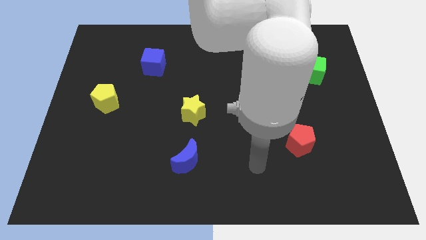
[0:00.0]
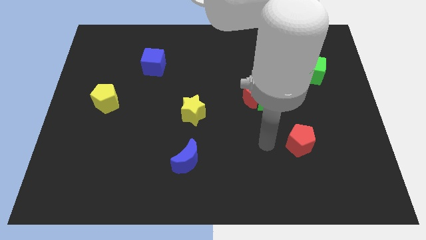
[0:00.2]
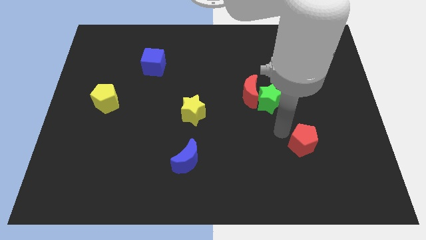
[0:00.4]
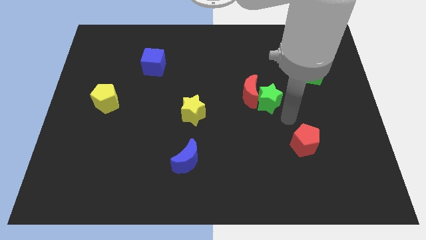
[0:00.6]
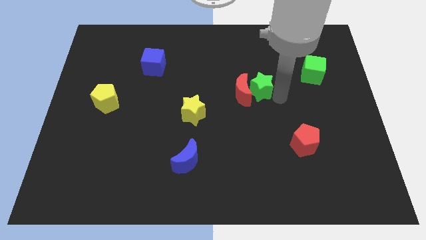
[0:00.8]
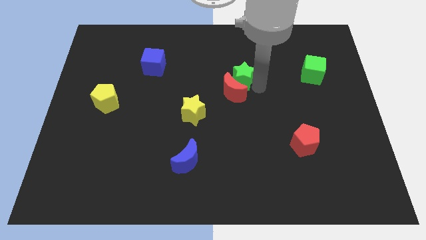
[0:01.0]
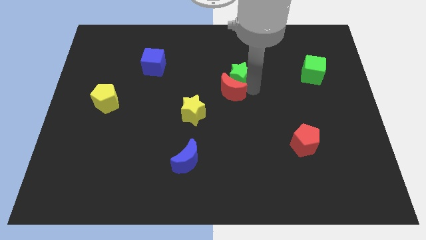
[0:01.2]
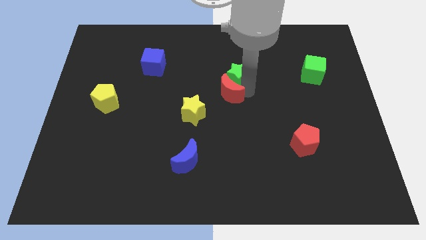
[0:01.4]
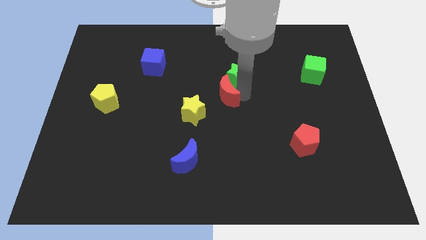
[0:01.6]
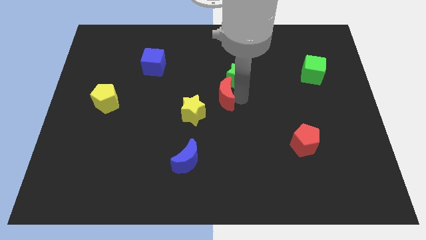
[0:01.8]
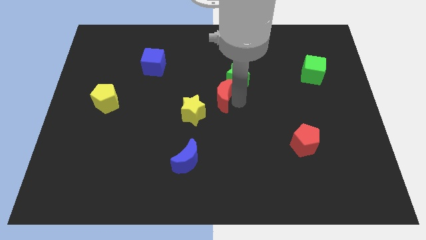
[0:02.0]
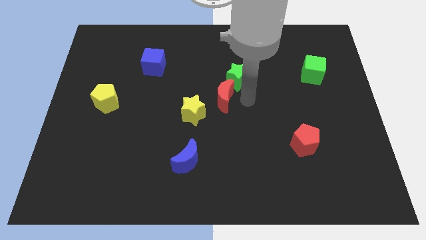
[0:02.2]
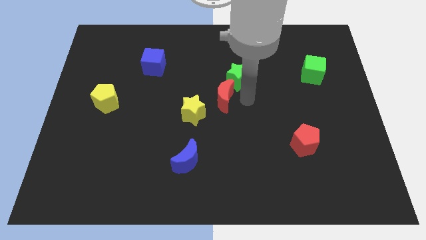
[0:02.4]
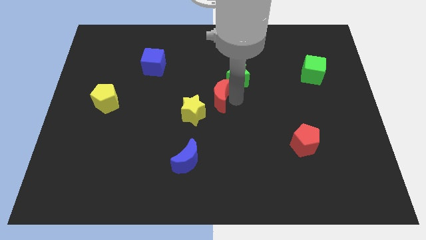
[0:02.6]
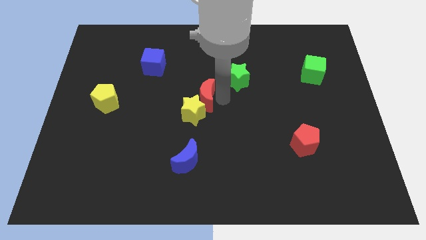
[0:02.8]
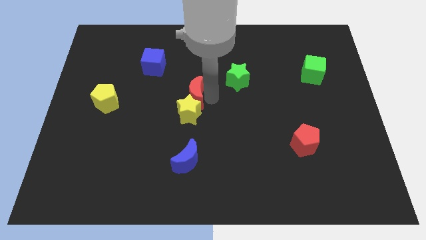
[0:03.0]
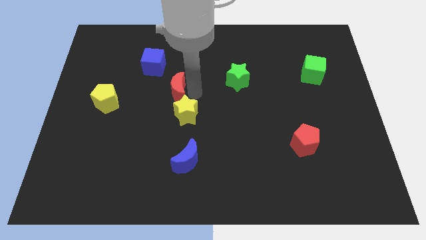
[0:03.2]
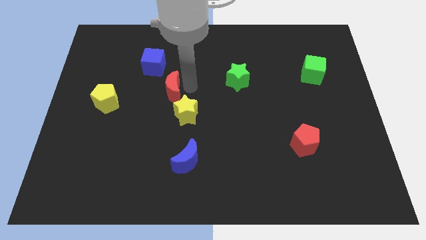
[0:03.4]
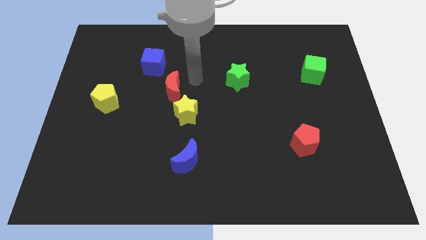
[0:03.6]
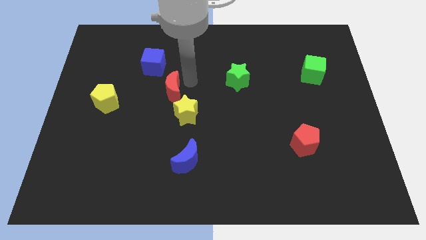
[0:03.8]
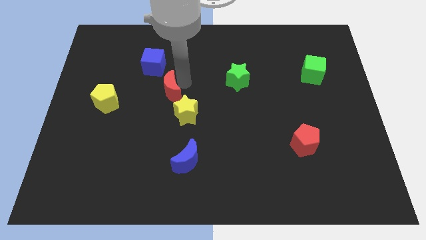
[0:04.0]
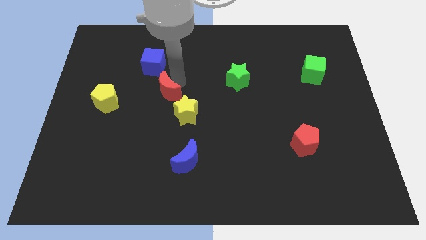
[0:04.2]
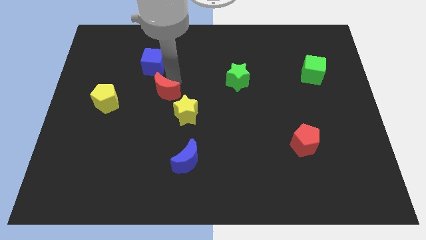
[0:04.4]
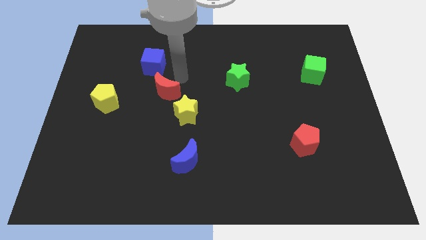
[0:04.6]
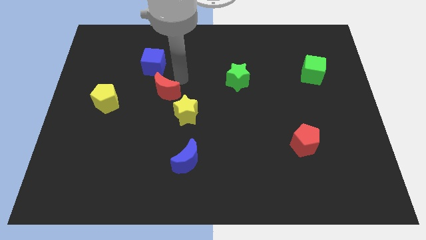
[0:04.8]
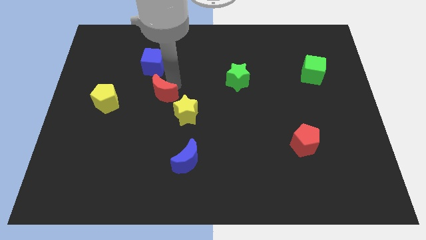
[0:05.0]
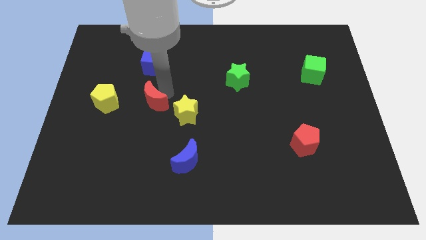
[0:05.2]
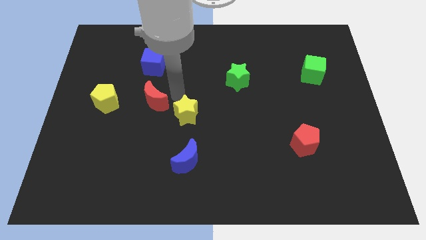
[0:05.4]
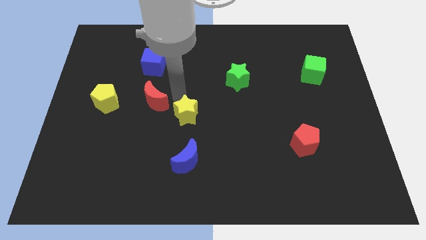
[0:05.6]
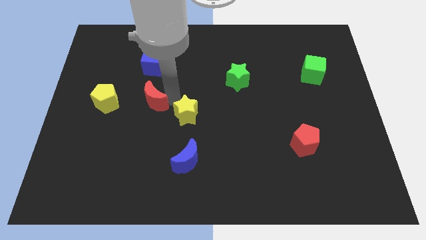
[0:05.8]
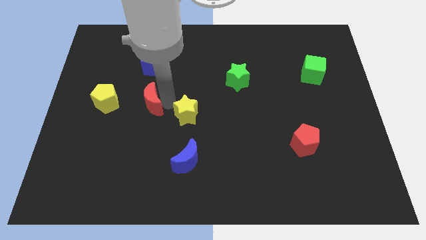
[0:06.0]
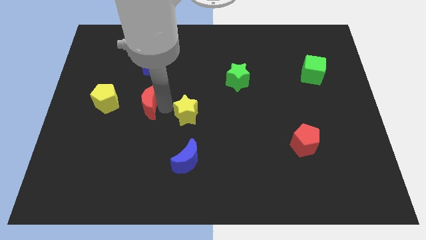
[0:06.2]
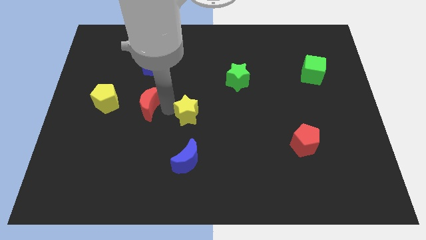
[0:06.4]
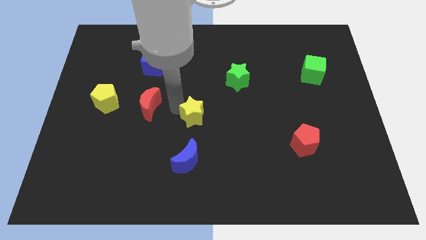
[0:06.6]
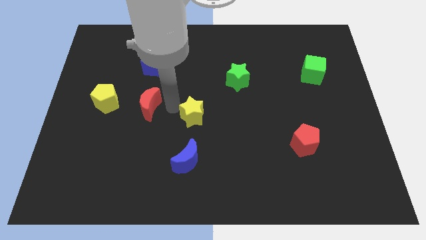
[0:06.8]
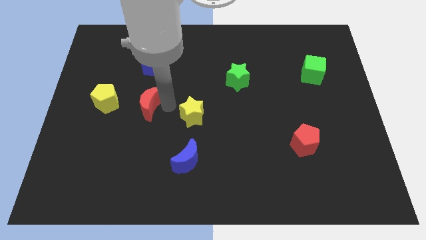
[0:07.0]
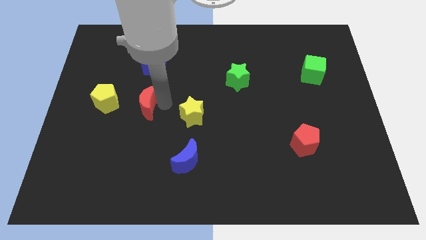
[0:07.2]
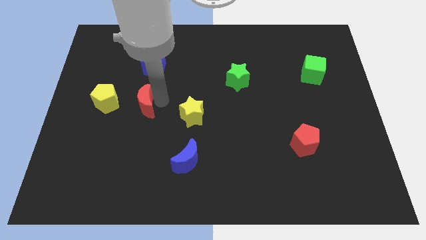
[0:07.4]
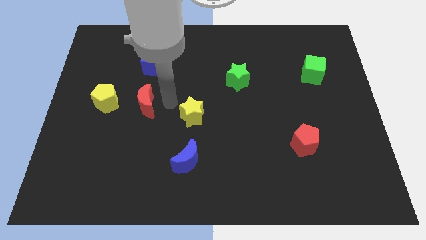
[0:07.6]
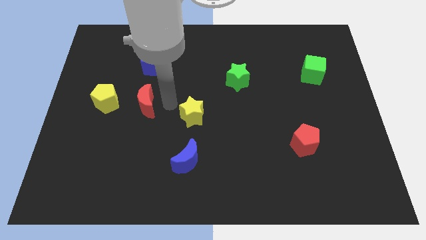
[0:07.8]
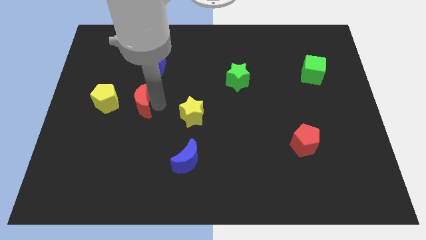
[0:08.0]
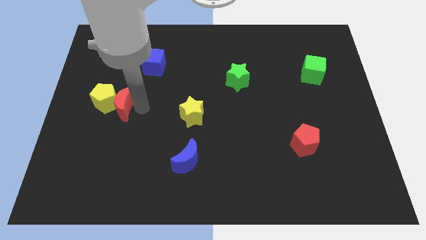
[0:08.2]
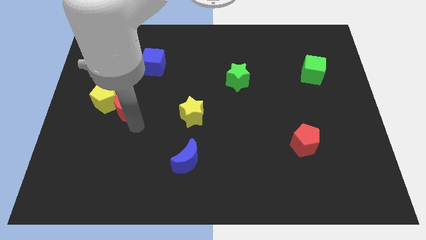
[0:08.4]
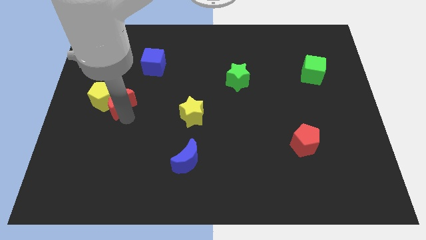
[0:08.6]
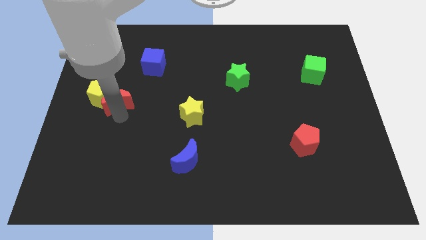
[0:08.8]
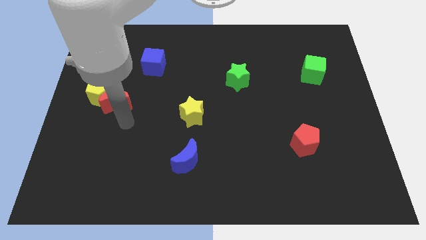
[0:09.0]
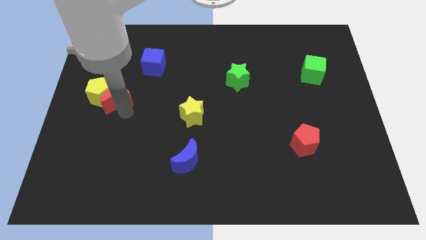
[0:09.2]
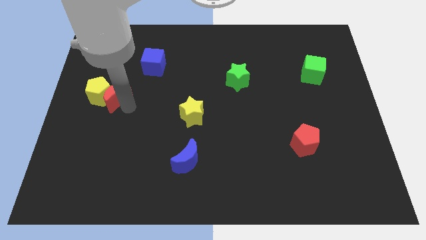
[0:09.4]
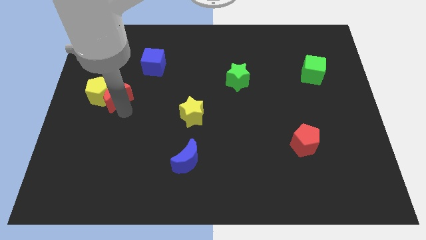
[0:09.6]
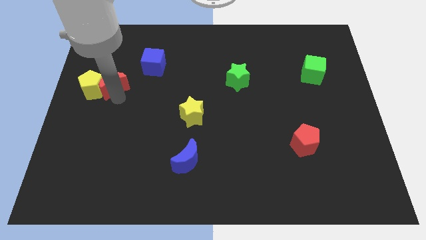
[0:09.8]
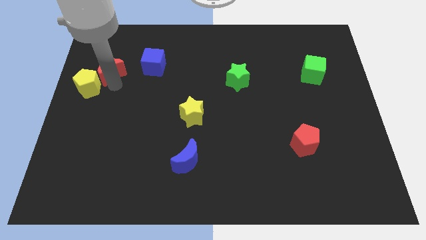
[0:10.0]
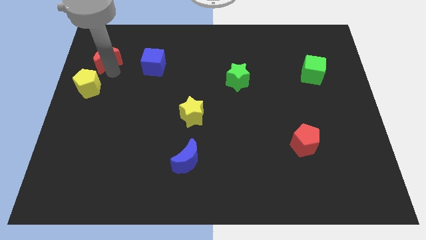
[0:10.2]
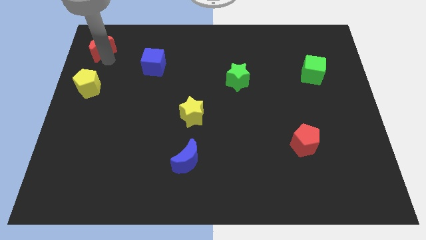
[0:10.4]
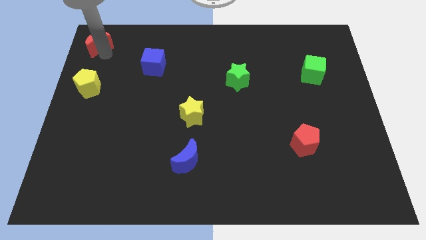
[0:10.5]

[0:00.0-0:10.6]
put the red moon to the top left

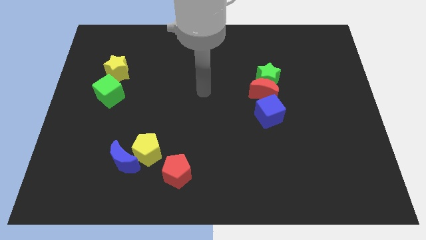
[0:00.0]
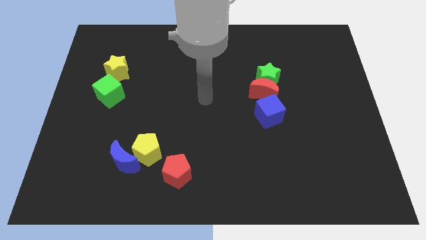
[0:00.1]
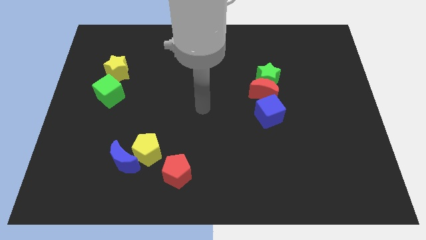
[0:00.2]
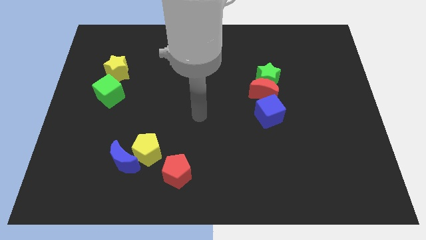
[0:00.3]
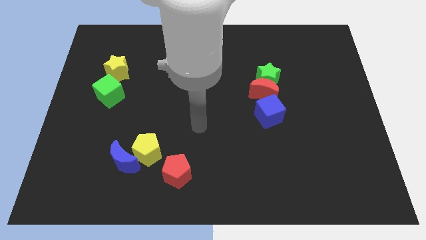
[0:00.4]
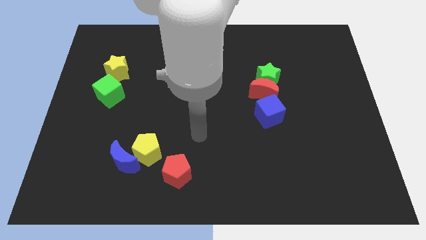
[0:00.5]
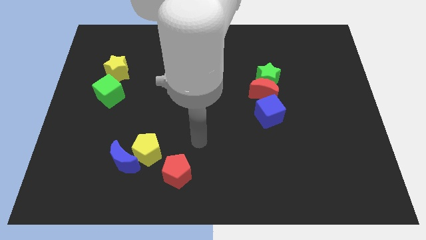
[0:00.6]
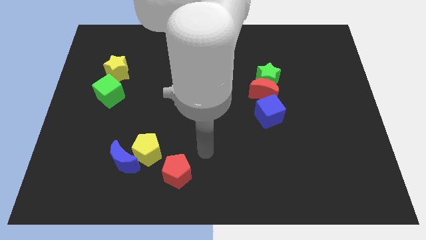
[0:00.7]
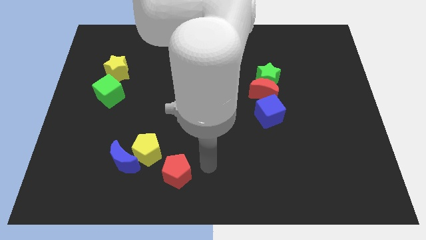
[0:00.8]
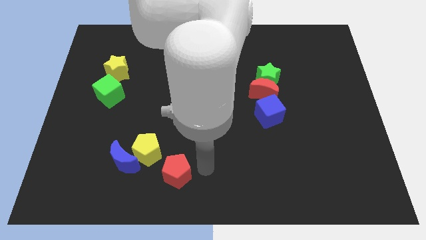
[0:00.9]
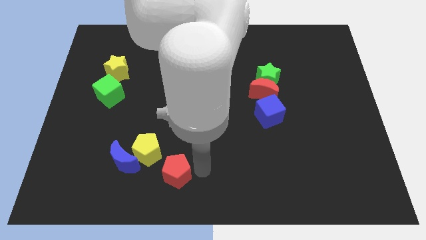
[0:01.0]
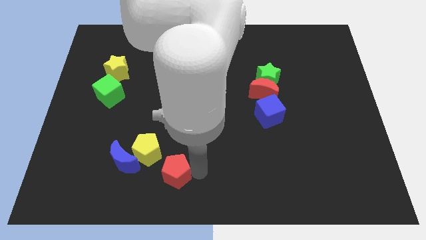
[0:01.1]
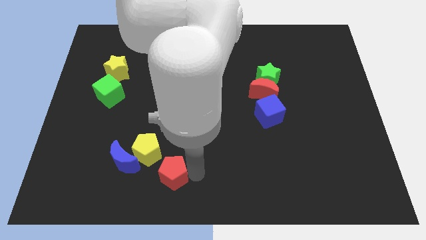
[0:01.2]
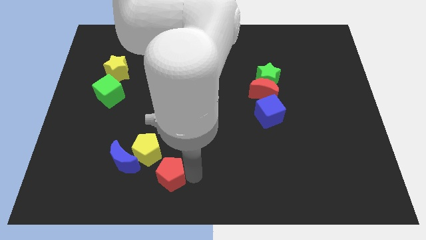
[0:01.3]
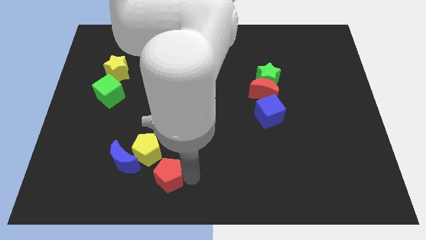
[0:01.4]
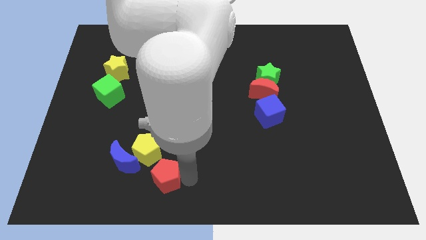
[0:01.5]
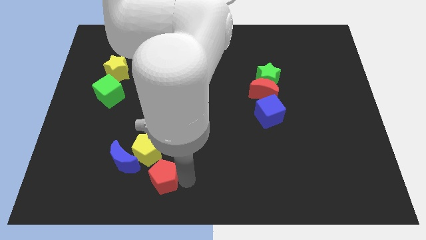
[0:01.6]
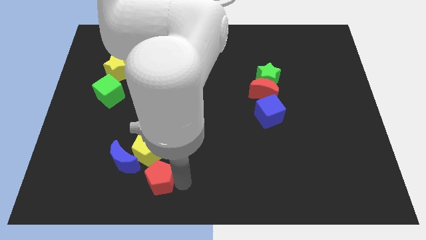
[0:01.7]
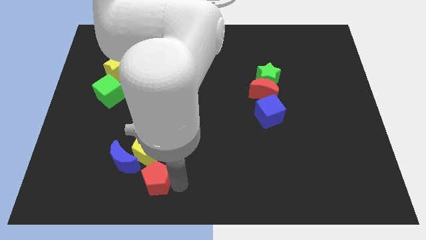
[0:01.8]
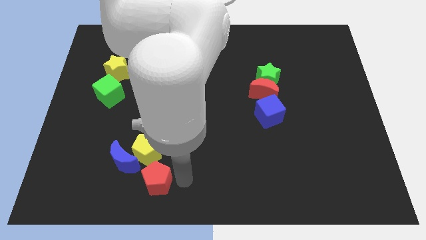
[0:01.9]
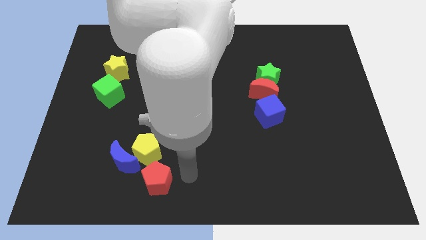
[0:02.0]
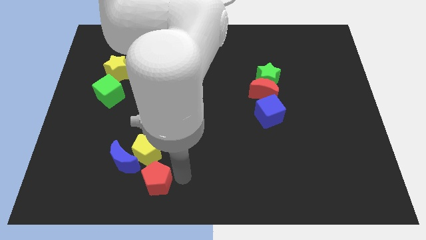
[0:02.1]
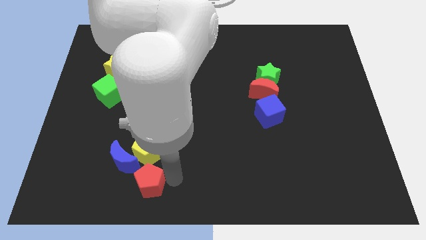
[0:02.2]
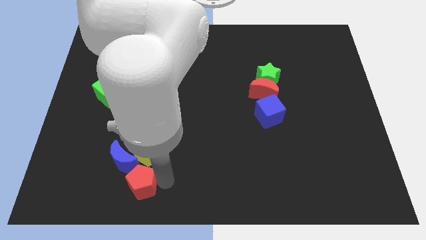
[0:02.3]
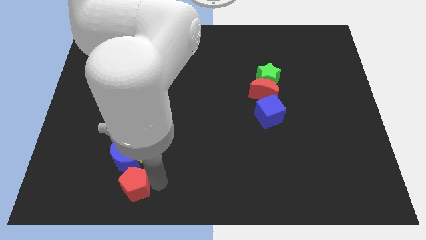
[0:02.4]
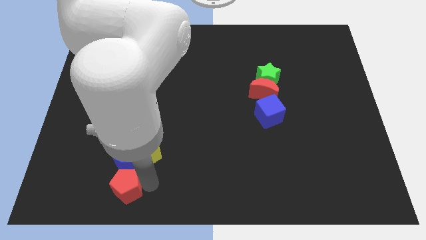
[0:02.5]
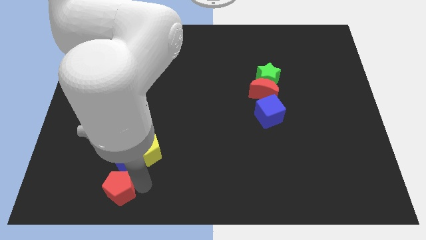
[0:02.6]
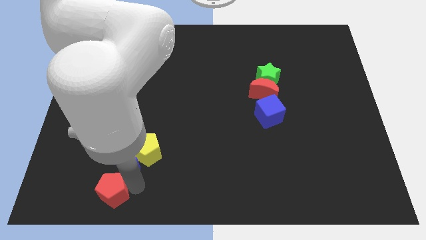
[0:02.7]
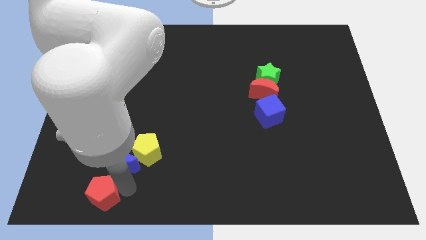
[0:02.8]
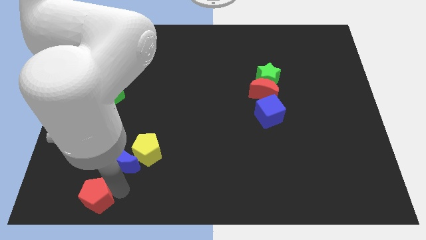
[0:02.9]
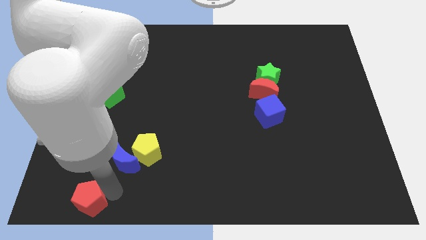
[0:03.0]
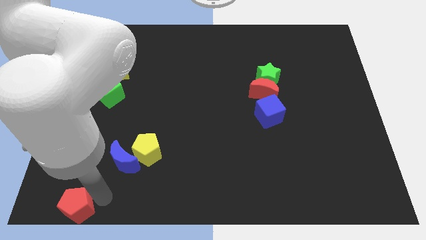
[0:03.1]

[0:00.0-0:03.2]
push the red pentagon to the bottom left
